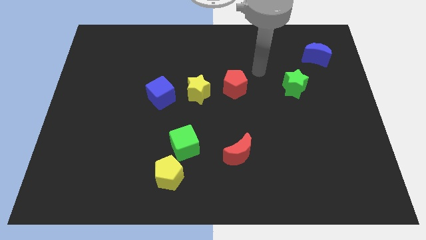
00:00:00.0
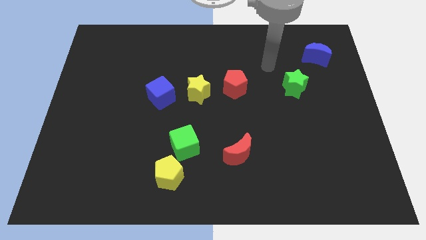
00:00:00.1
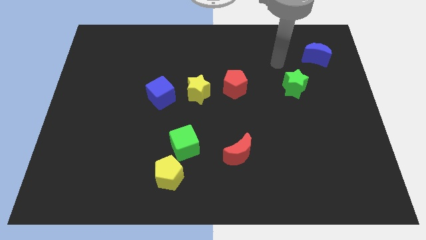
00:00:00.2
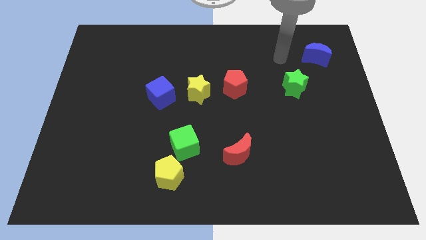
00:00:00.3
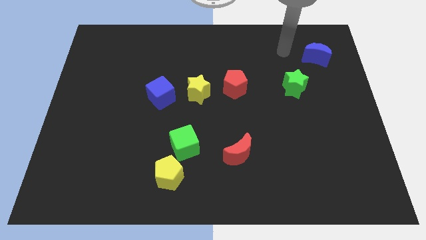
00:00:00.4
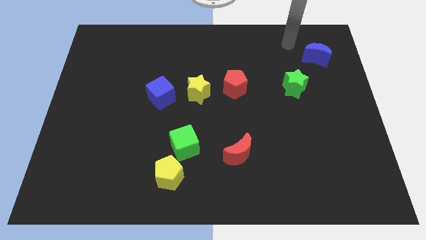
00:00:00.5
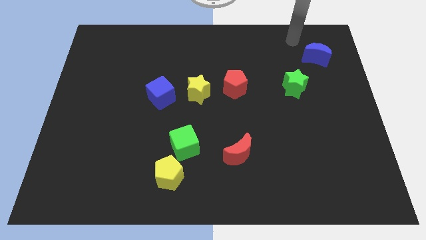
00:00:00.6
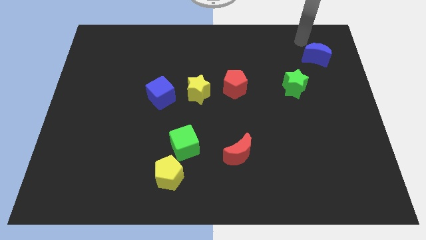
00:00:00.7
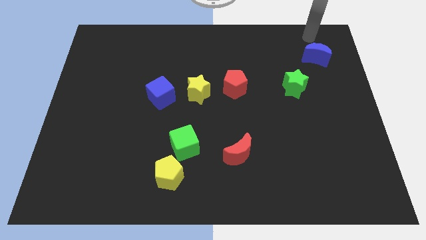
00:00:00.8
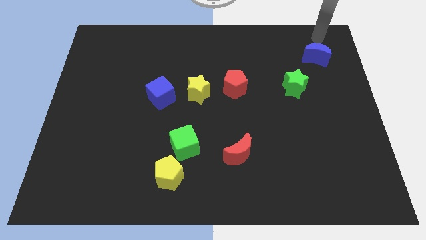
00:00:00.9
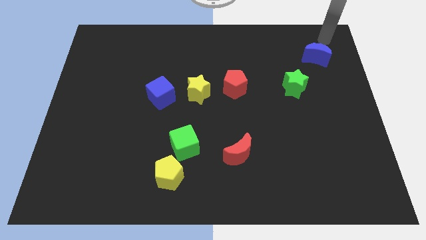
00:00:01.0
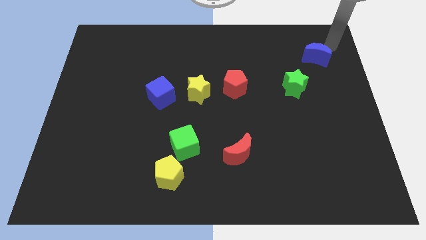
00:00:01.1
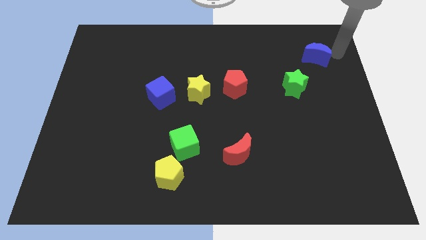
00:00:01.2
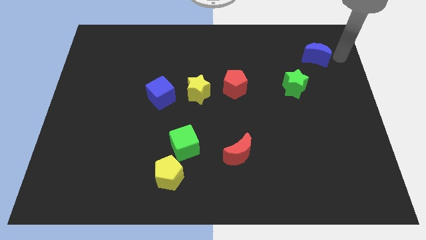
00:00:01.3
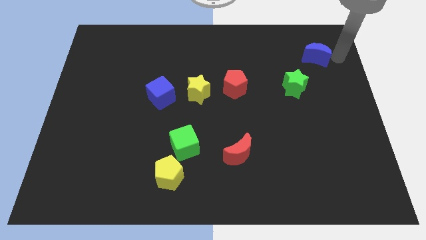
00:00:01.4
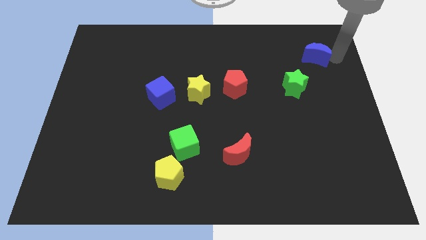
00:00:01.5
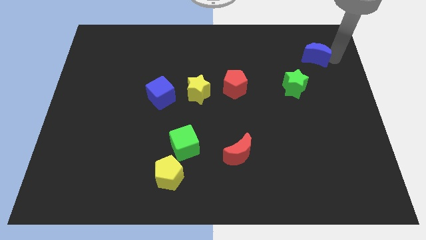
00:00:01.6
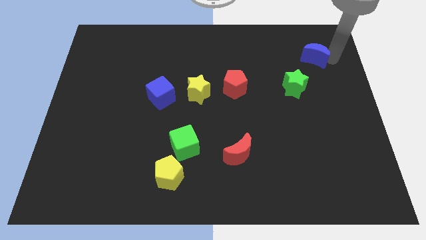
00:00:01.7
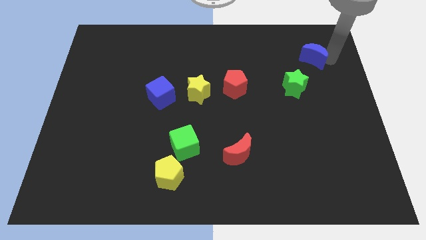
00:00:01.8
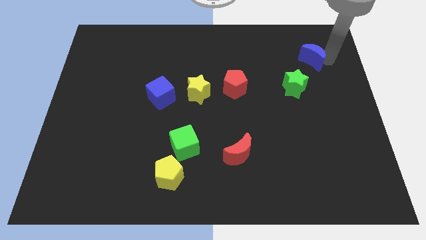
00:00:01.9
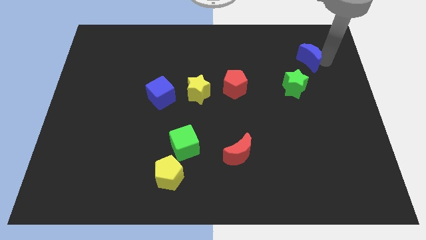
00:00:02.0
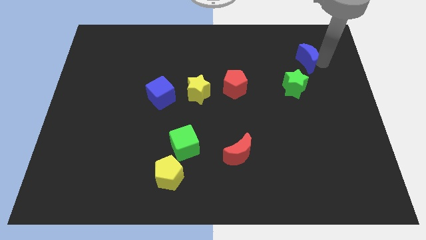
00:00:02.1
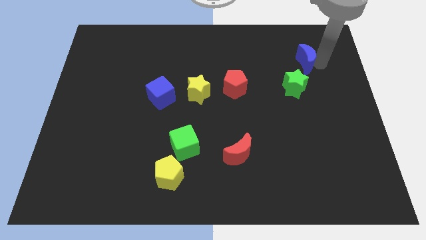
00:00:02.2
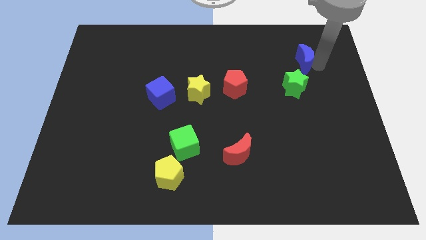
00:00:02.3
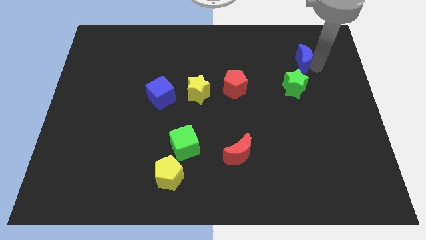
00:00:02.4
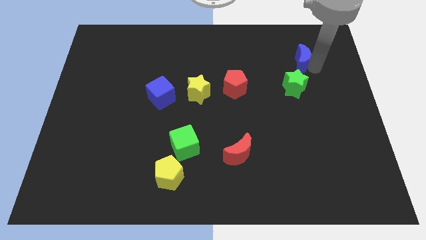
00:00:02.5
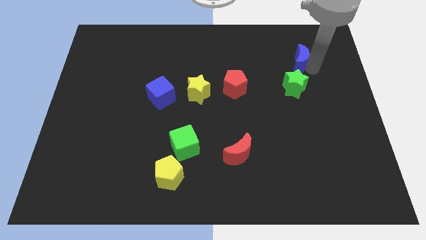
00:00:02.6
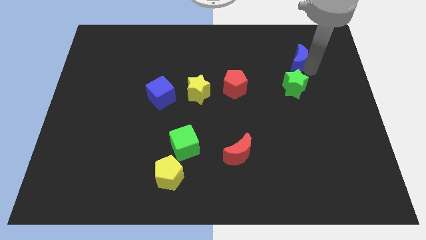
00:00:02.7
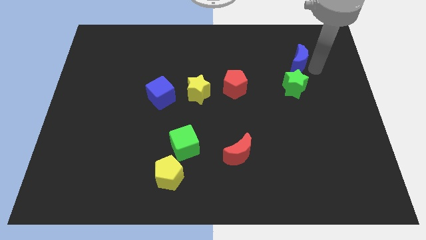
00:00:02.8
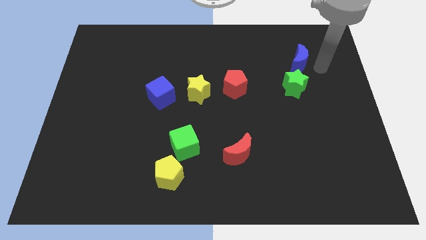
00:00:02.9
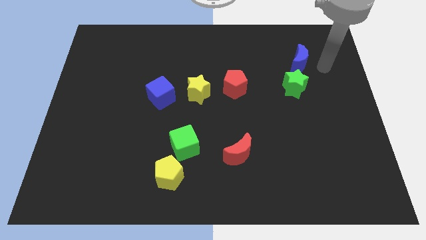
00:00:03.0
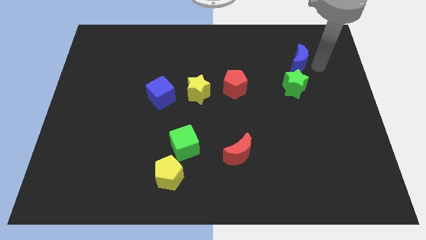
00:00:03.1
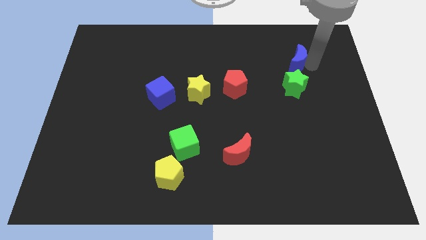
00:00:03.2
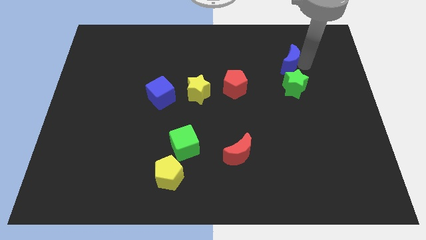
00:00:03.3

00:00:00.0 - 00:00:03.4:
move the blue moon to the left a little

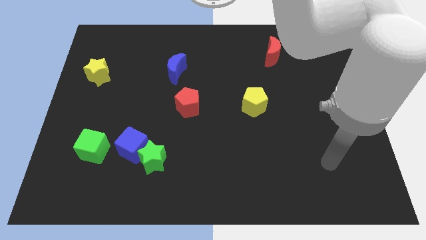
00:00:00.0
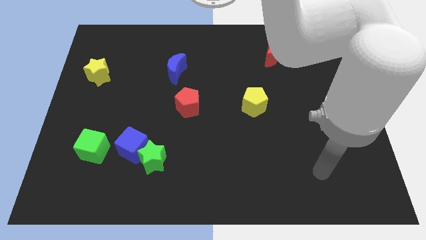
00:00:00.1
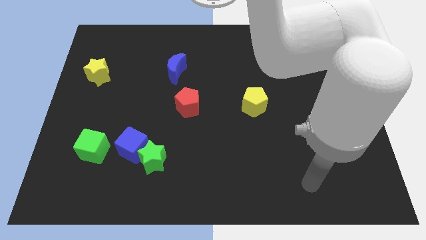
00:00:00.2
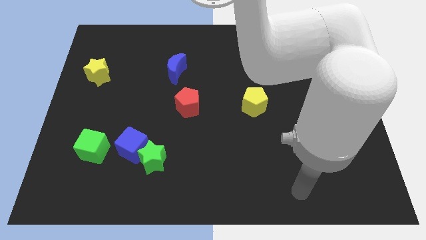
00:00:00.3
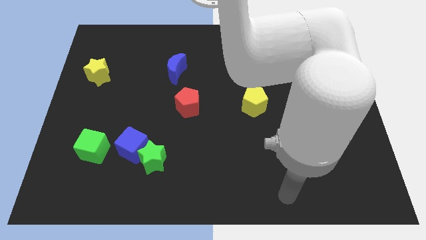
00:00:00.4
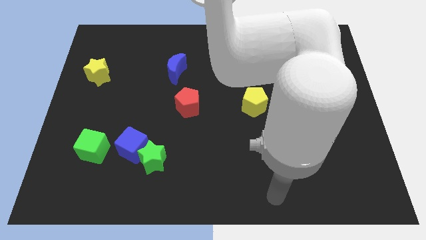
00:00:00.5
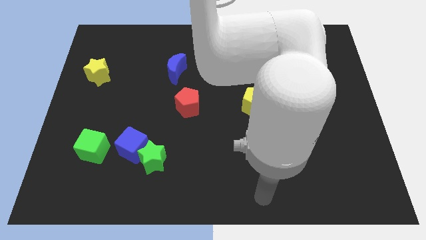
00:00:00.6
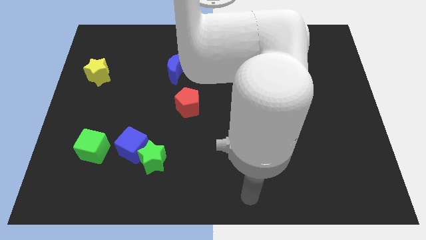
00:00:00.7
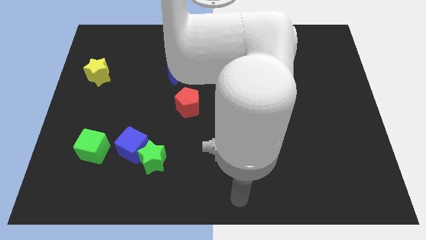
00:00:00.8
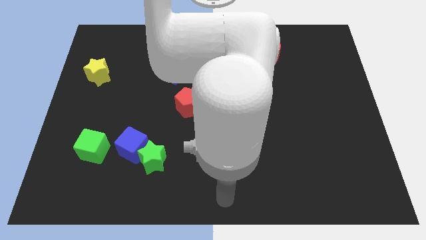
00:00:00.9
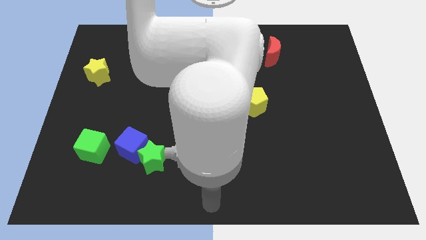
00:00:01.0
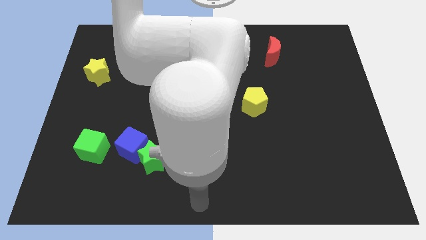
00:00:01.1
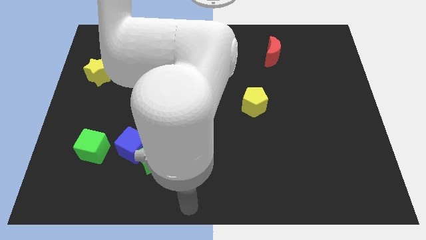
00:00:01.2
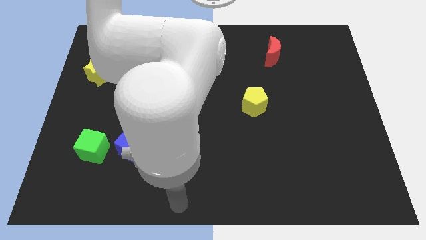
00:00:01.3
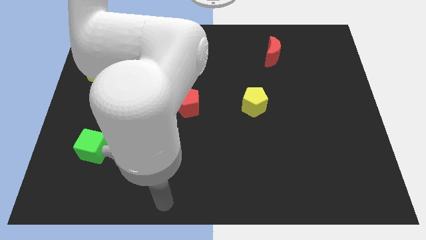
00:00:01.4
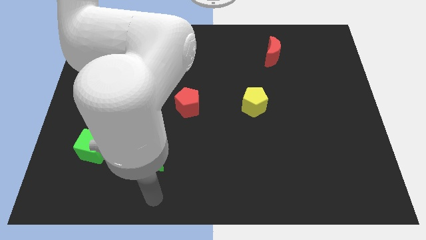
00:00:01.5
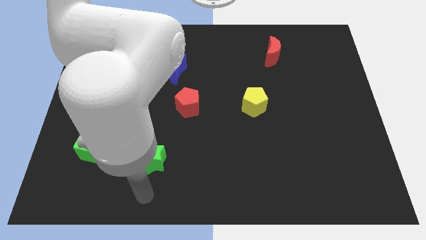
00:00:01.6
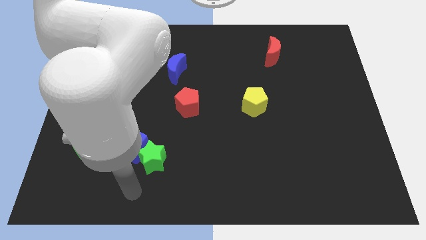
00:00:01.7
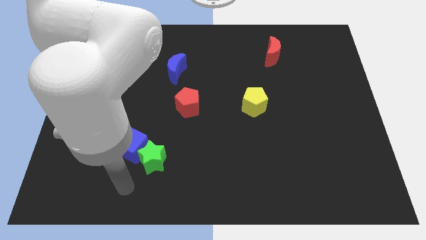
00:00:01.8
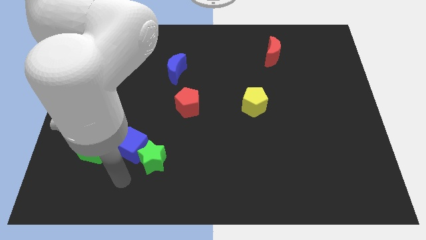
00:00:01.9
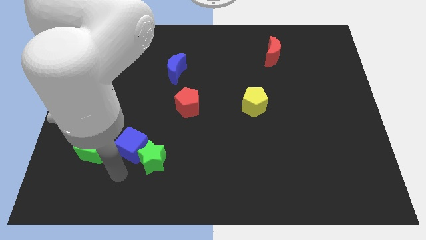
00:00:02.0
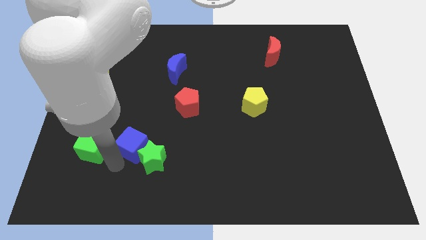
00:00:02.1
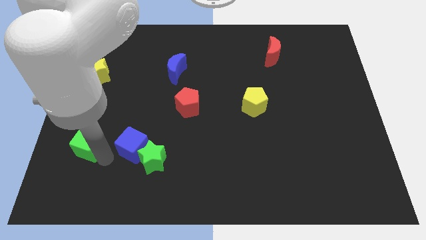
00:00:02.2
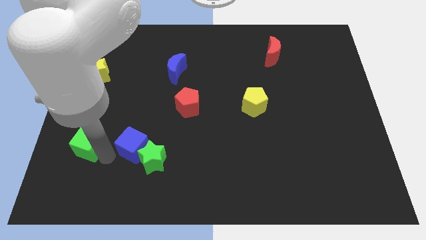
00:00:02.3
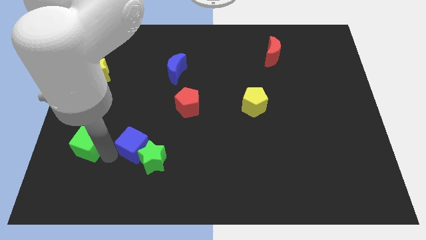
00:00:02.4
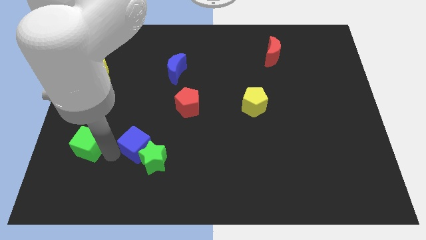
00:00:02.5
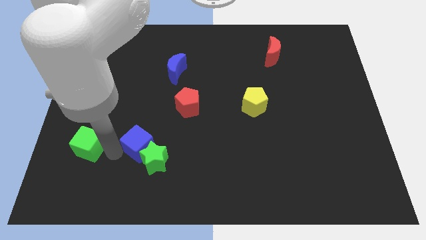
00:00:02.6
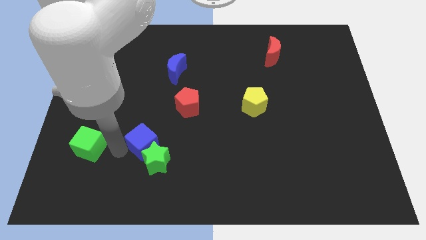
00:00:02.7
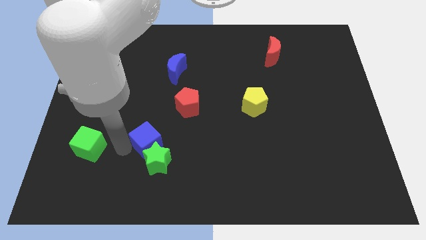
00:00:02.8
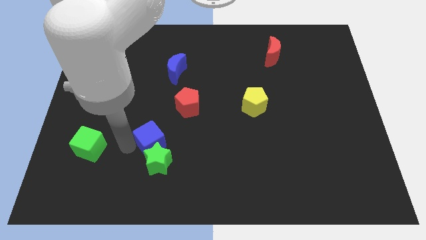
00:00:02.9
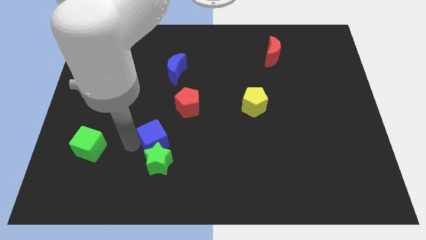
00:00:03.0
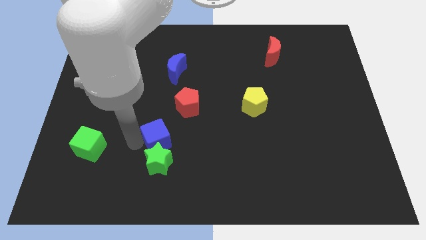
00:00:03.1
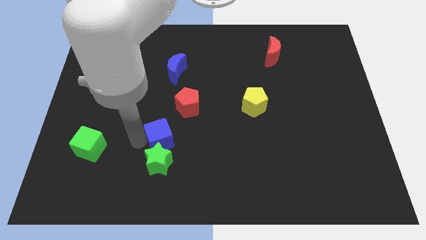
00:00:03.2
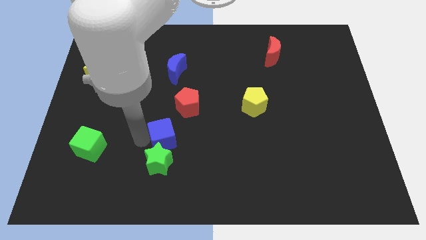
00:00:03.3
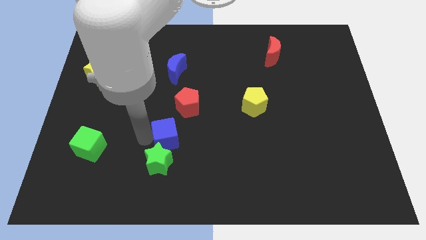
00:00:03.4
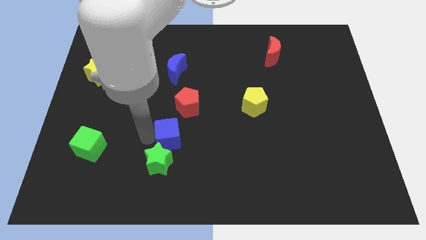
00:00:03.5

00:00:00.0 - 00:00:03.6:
slide the blue cube a little right

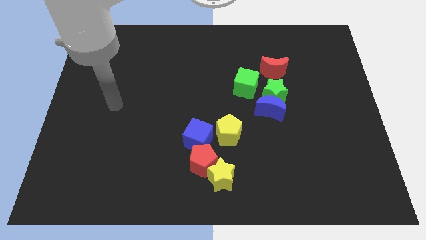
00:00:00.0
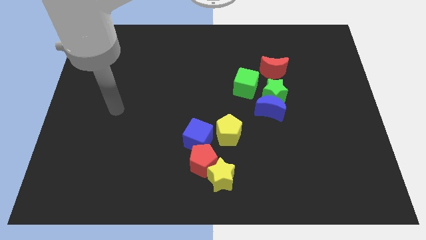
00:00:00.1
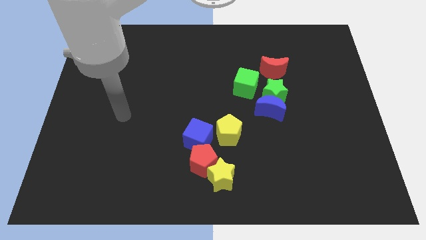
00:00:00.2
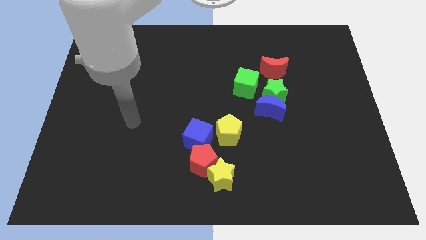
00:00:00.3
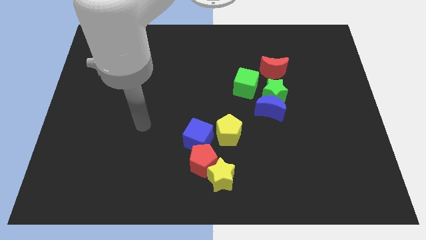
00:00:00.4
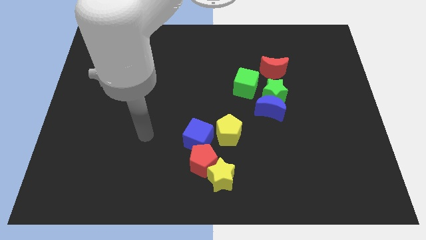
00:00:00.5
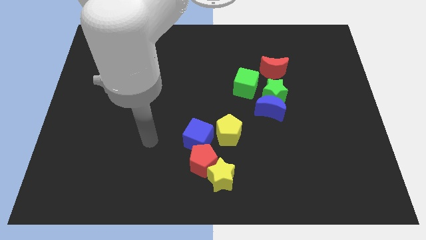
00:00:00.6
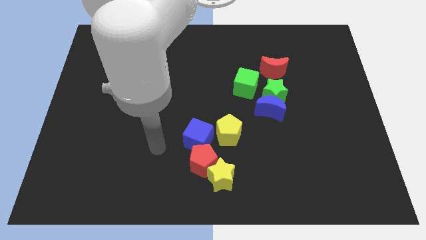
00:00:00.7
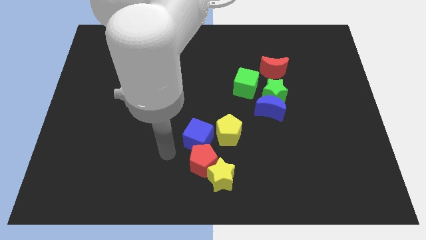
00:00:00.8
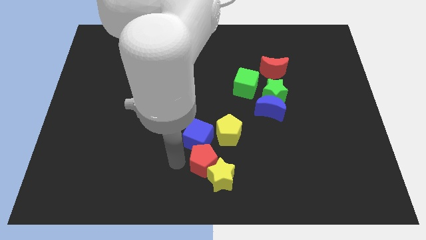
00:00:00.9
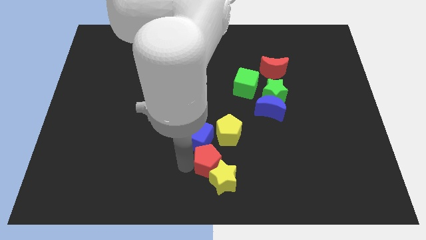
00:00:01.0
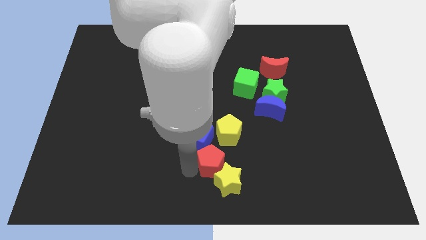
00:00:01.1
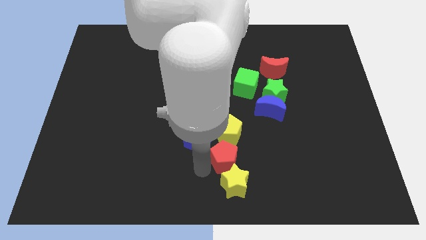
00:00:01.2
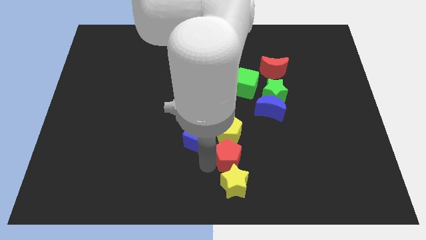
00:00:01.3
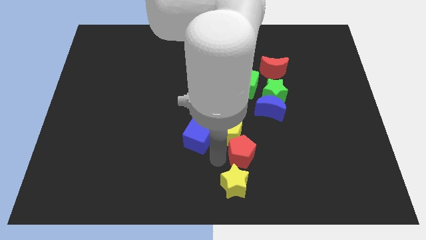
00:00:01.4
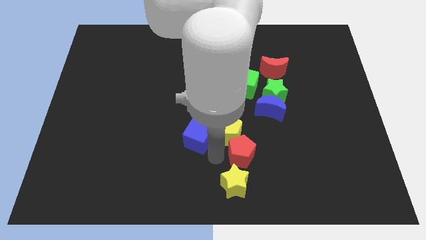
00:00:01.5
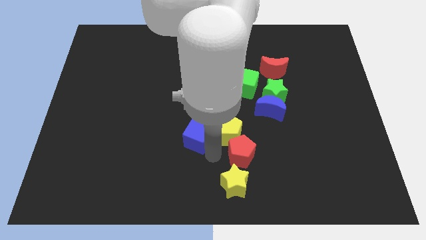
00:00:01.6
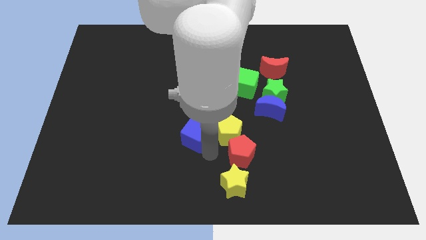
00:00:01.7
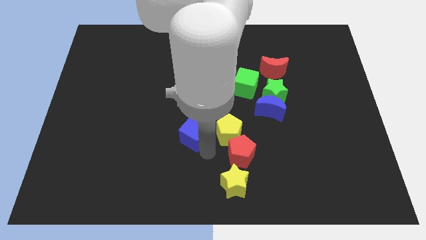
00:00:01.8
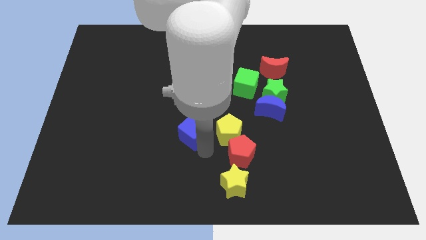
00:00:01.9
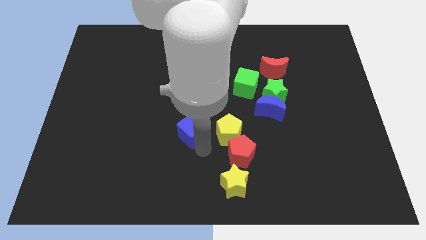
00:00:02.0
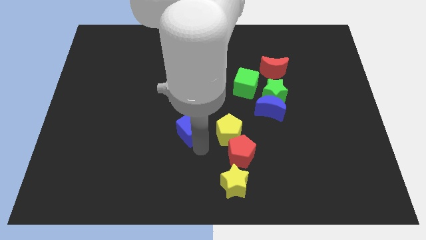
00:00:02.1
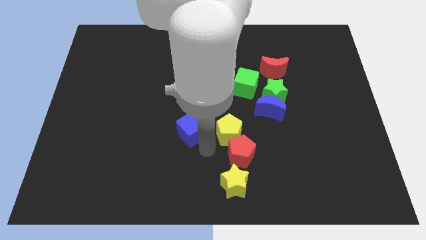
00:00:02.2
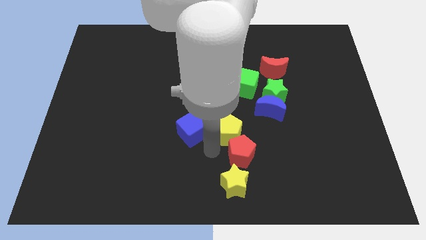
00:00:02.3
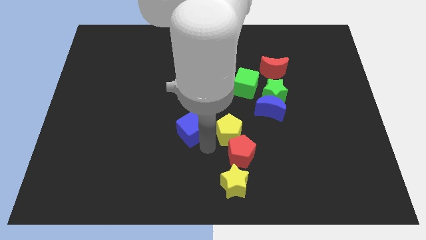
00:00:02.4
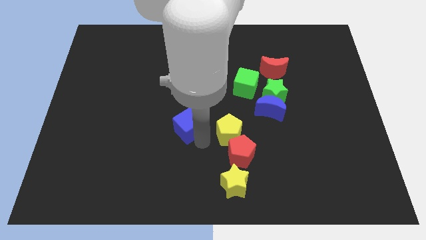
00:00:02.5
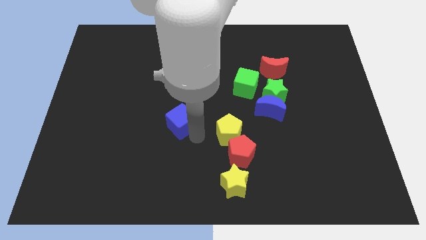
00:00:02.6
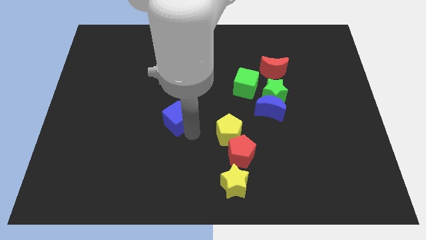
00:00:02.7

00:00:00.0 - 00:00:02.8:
slide the blue cube somewhat up and to the left diagonally
